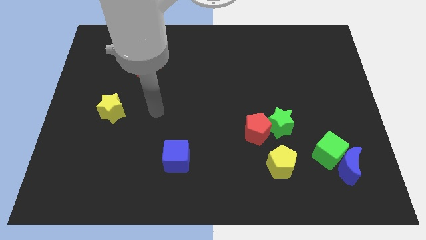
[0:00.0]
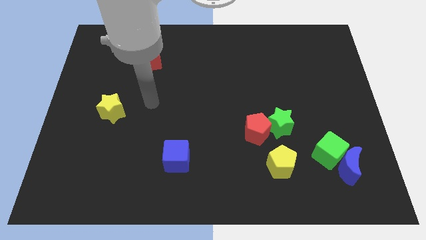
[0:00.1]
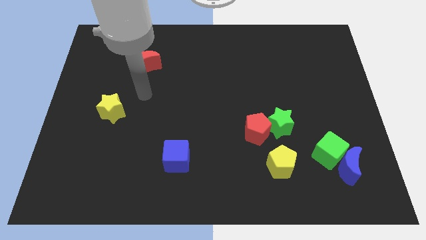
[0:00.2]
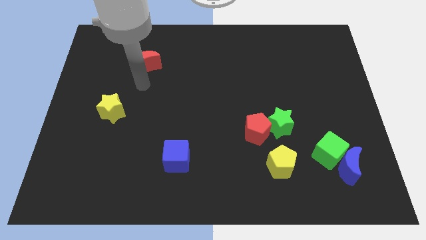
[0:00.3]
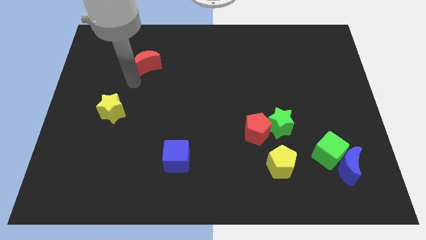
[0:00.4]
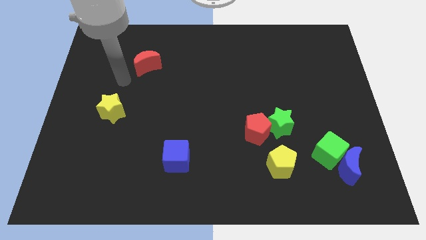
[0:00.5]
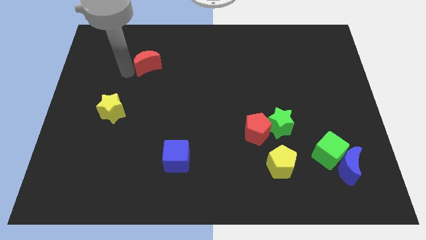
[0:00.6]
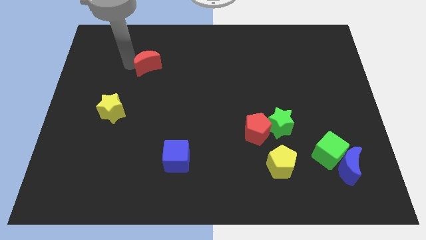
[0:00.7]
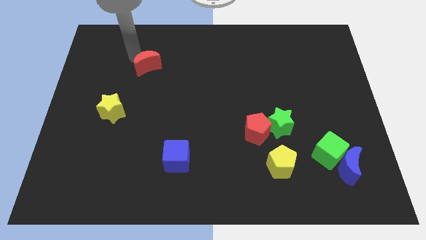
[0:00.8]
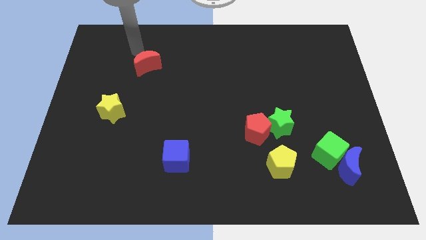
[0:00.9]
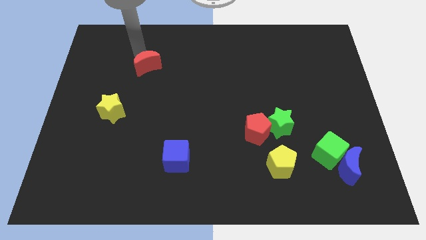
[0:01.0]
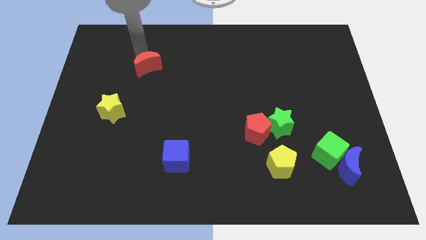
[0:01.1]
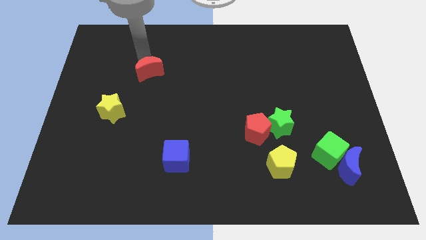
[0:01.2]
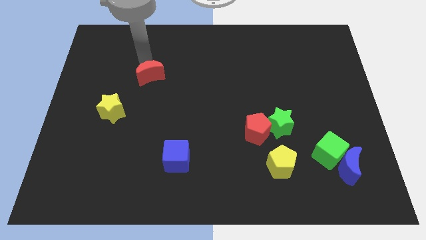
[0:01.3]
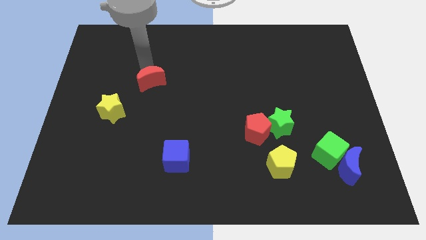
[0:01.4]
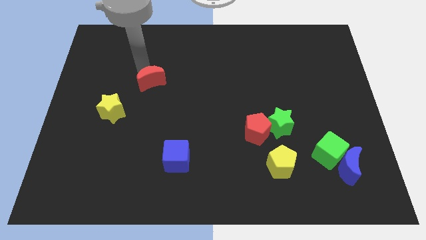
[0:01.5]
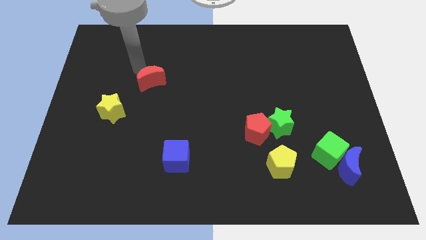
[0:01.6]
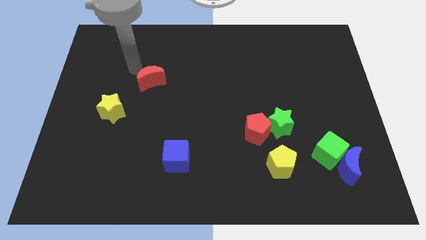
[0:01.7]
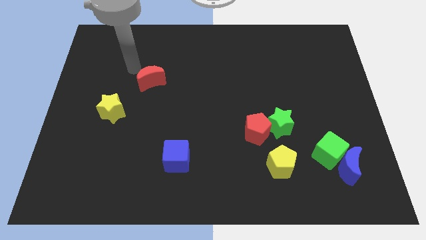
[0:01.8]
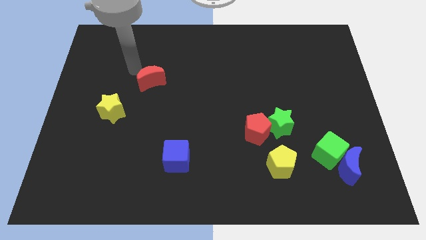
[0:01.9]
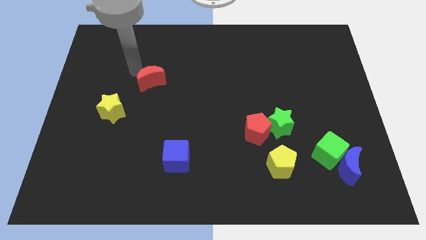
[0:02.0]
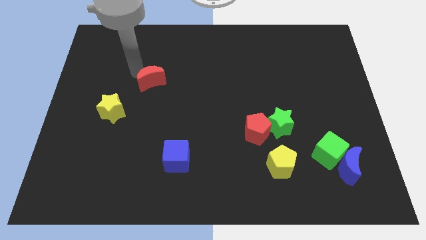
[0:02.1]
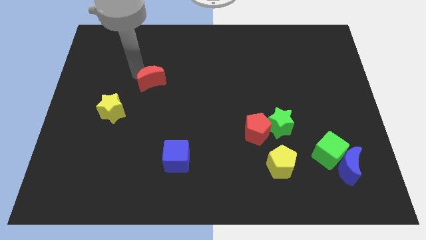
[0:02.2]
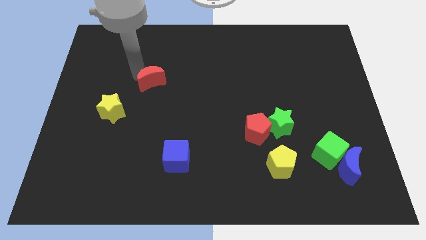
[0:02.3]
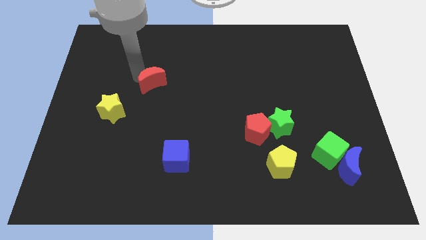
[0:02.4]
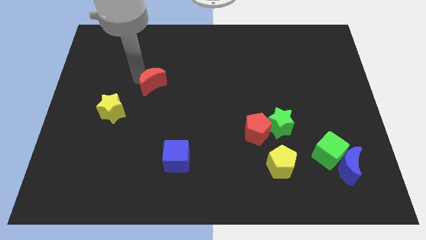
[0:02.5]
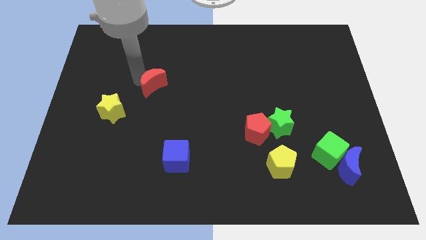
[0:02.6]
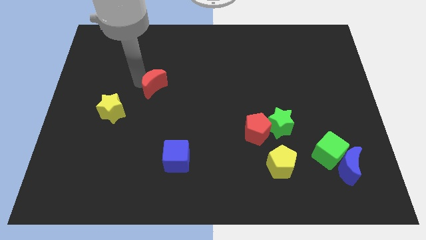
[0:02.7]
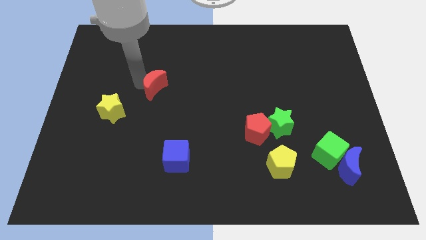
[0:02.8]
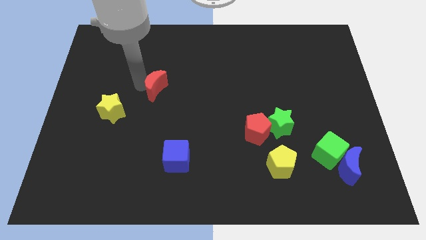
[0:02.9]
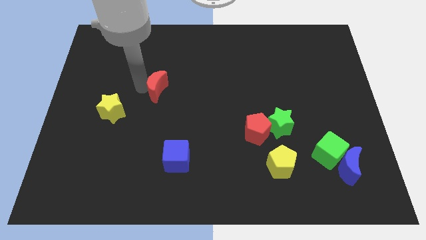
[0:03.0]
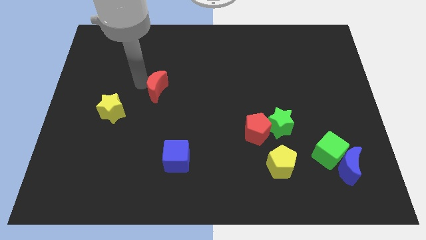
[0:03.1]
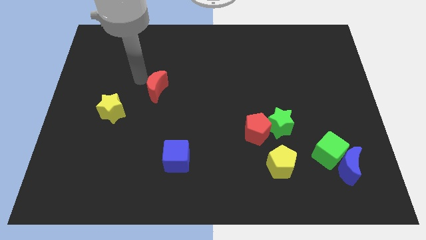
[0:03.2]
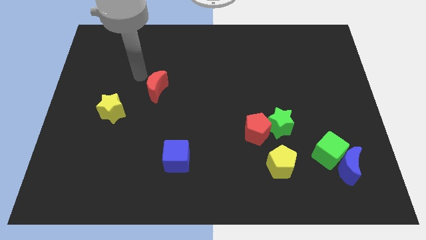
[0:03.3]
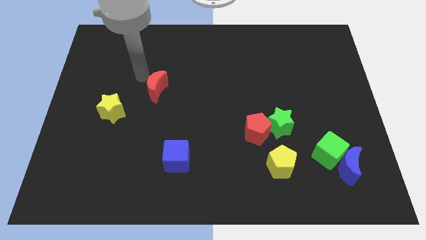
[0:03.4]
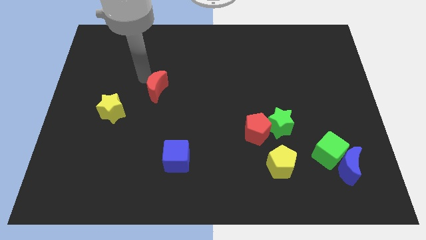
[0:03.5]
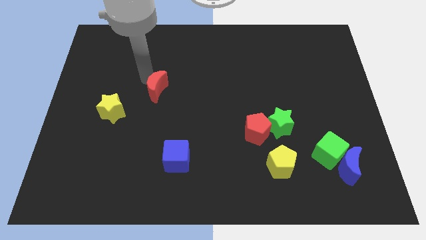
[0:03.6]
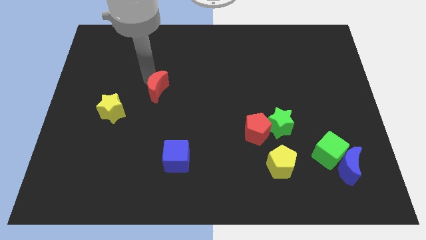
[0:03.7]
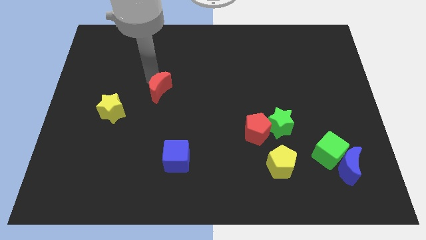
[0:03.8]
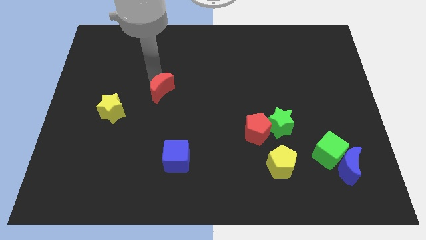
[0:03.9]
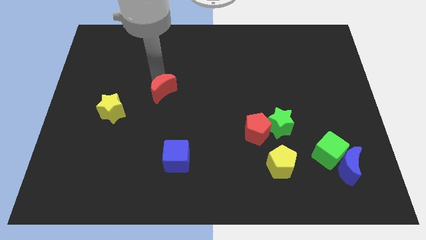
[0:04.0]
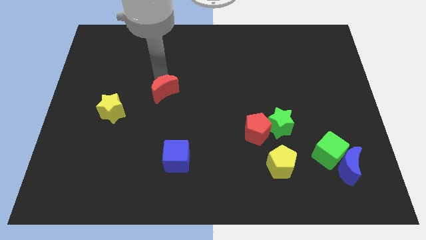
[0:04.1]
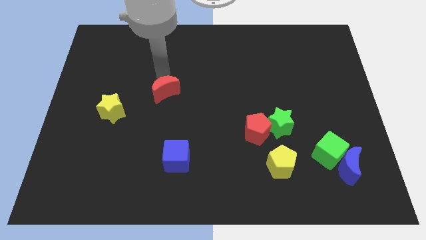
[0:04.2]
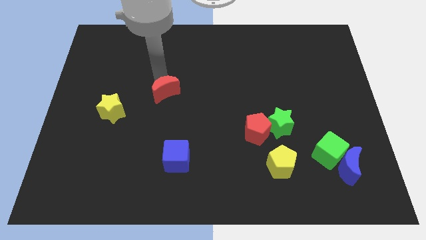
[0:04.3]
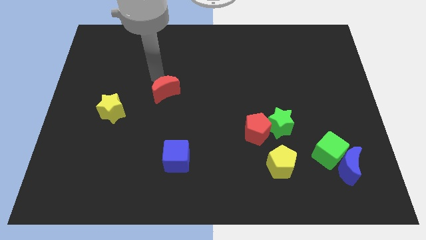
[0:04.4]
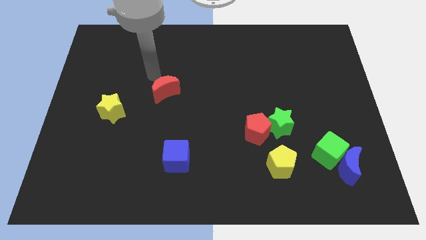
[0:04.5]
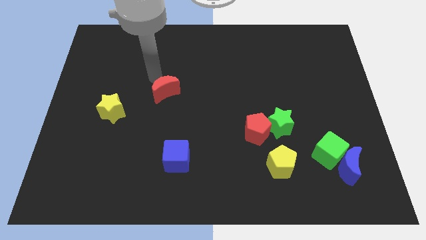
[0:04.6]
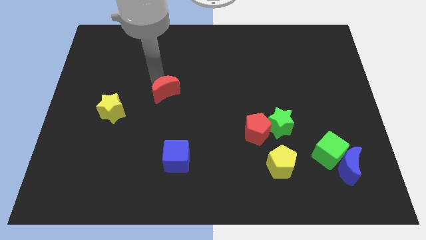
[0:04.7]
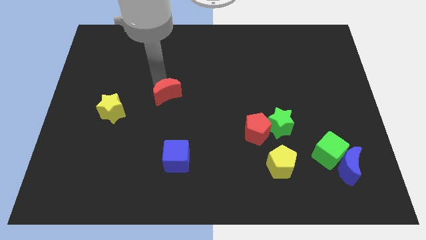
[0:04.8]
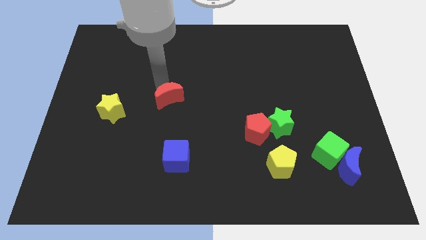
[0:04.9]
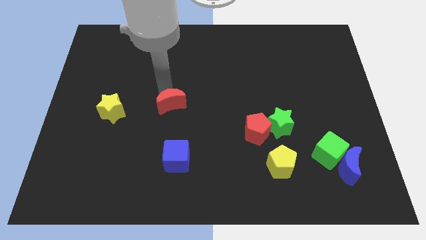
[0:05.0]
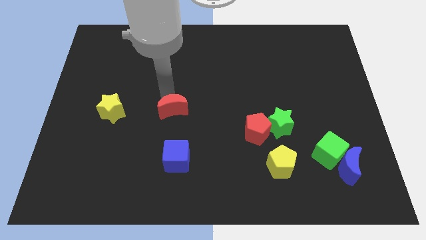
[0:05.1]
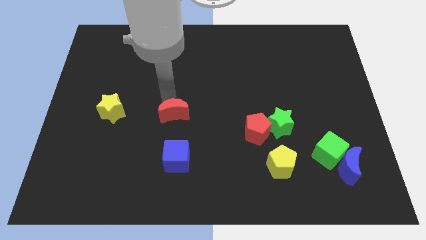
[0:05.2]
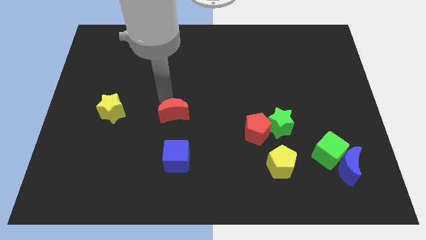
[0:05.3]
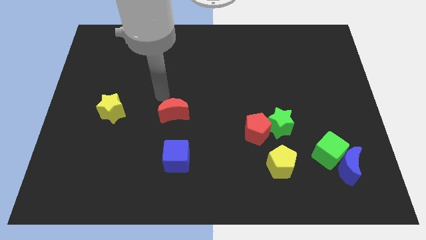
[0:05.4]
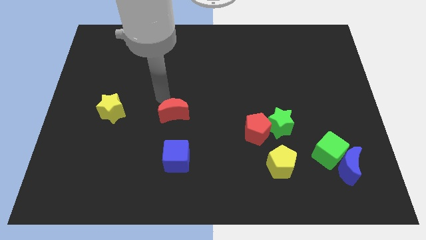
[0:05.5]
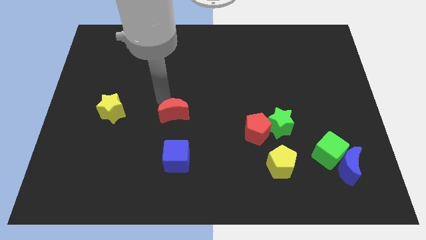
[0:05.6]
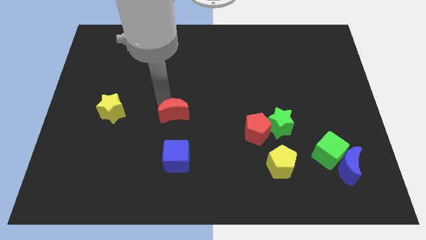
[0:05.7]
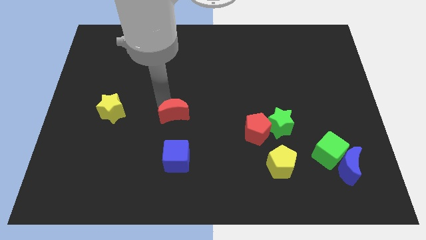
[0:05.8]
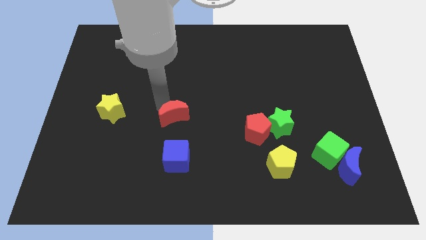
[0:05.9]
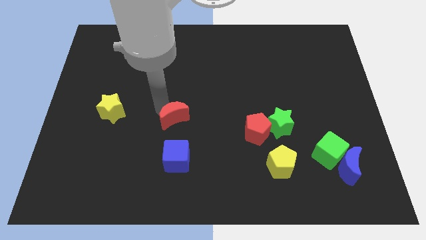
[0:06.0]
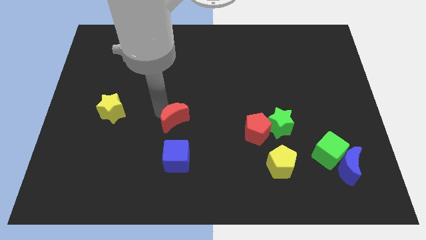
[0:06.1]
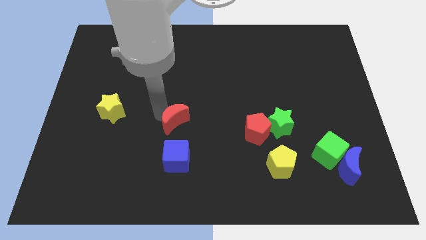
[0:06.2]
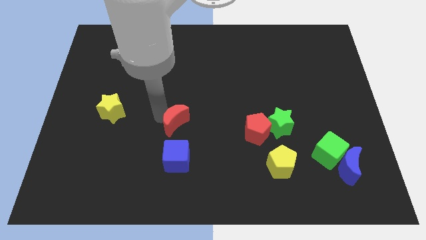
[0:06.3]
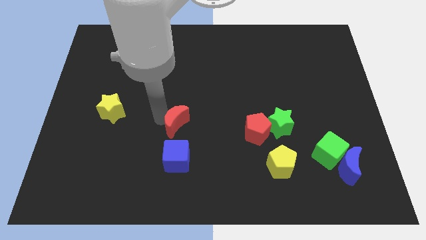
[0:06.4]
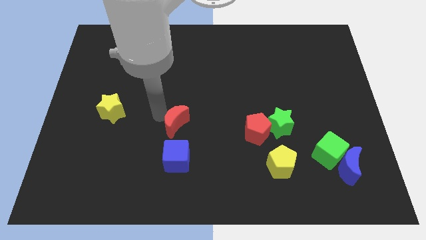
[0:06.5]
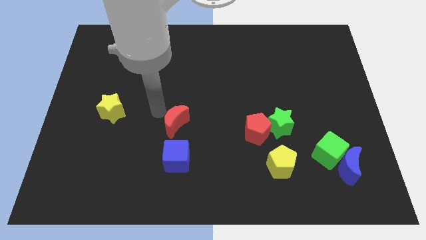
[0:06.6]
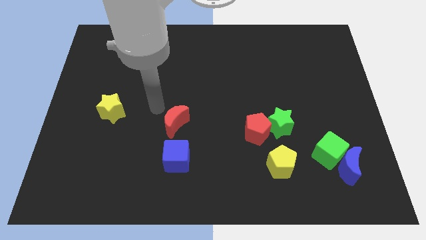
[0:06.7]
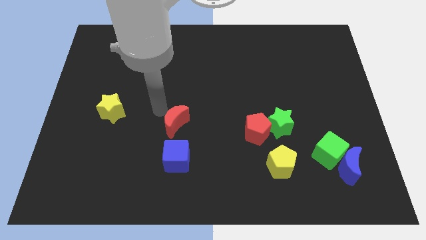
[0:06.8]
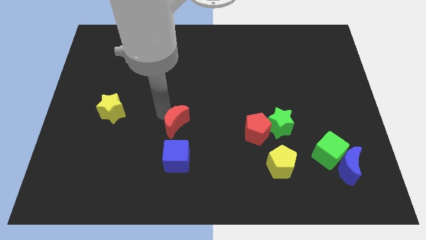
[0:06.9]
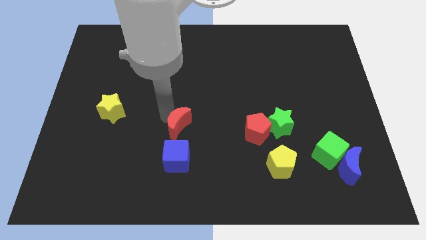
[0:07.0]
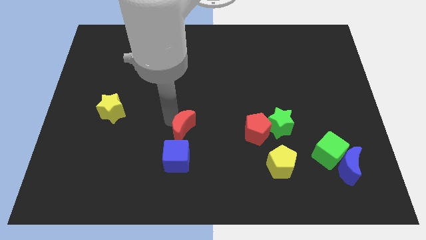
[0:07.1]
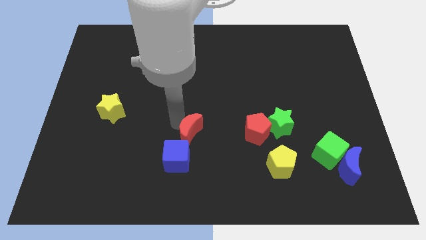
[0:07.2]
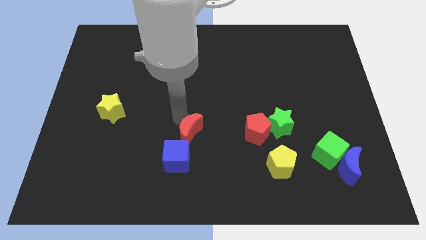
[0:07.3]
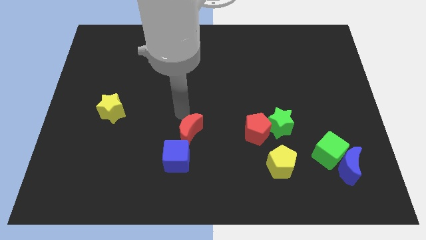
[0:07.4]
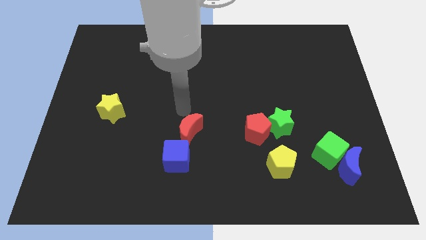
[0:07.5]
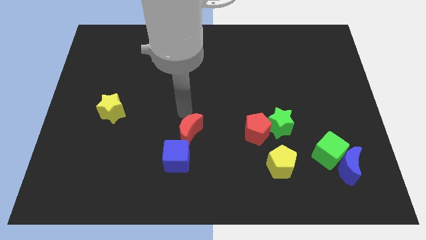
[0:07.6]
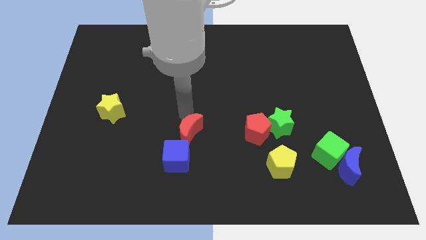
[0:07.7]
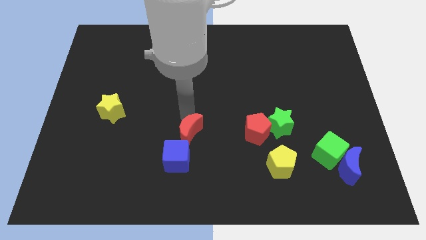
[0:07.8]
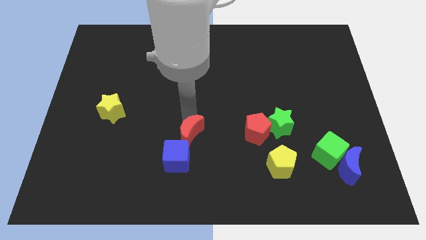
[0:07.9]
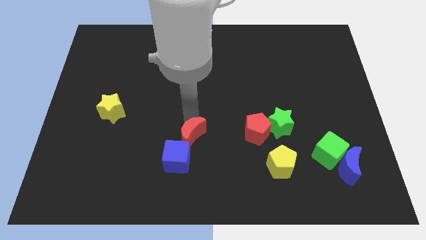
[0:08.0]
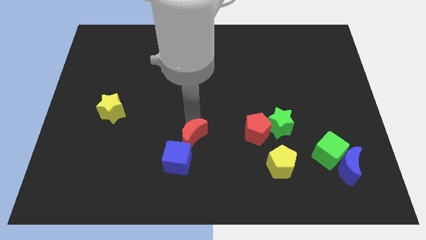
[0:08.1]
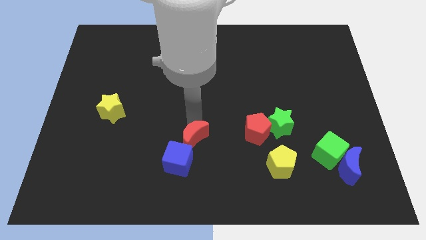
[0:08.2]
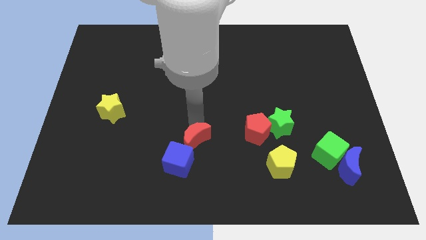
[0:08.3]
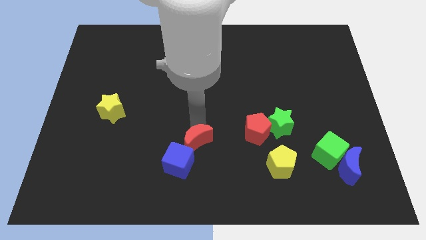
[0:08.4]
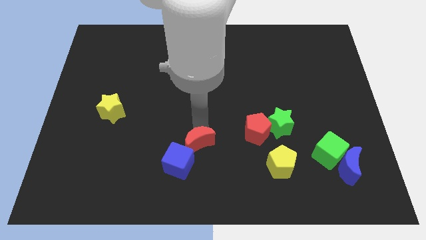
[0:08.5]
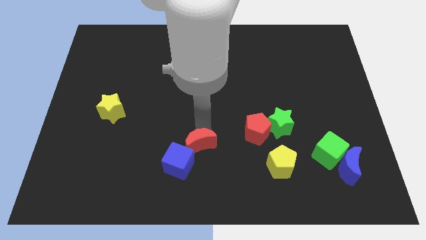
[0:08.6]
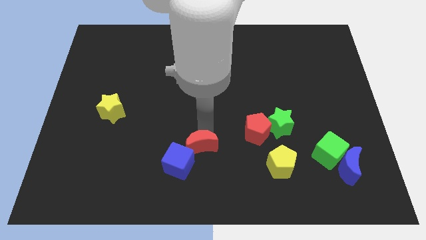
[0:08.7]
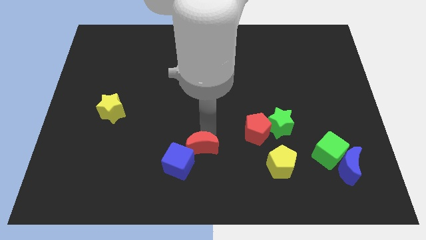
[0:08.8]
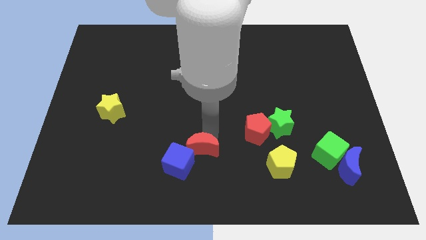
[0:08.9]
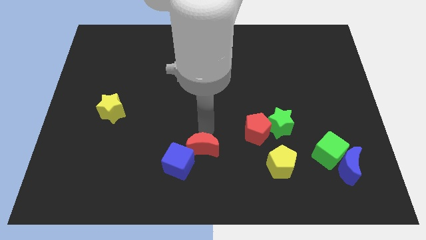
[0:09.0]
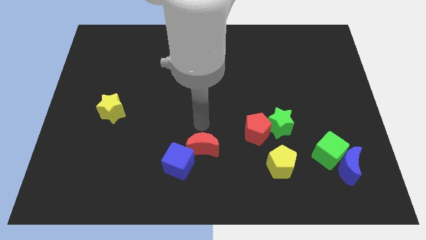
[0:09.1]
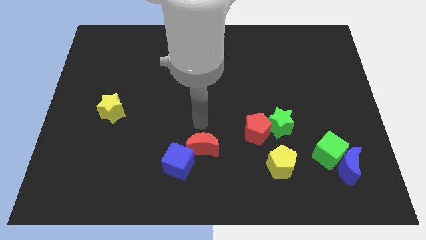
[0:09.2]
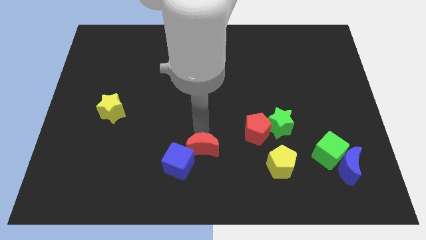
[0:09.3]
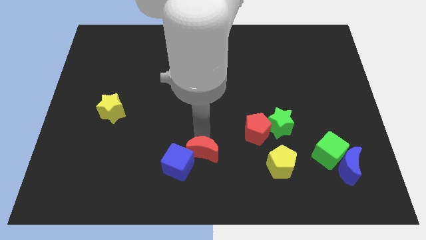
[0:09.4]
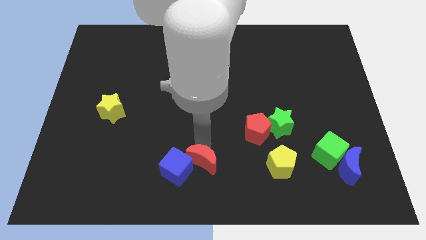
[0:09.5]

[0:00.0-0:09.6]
push the red moon to the bottom
